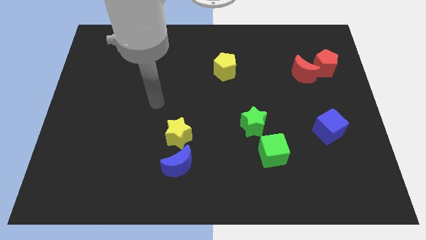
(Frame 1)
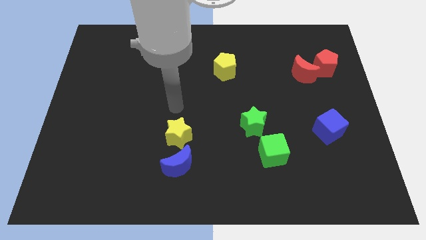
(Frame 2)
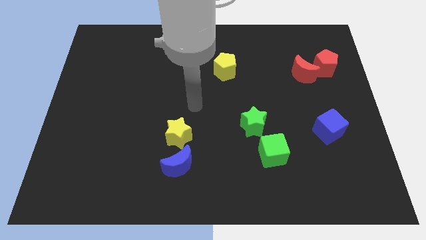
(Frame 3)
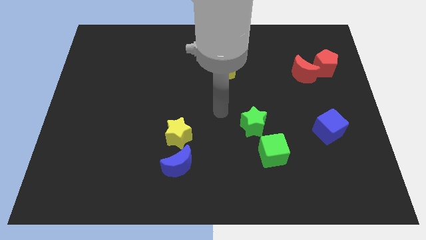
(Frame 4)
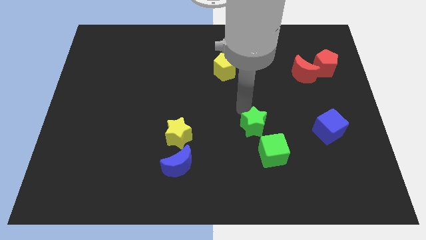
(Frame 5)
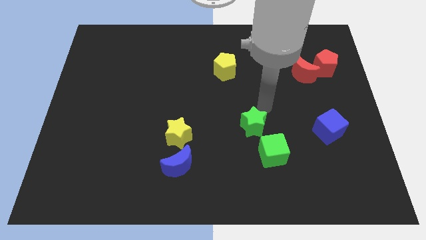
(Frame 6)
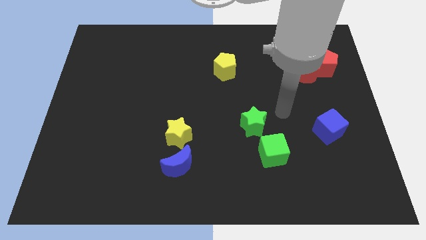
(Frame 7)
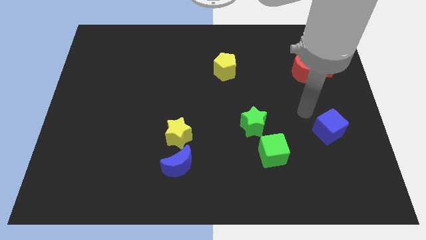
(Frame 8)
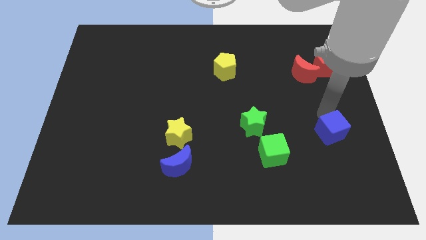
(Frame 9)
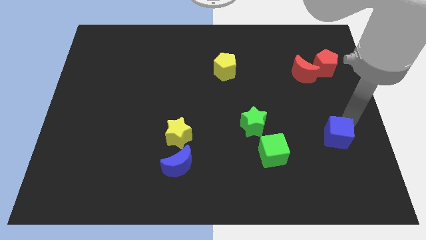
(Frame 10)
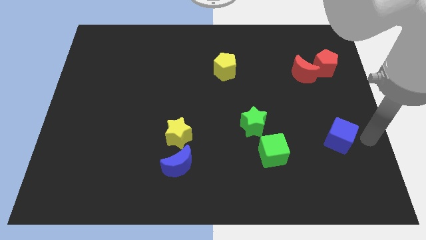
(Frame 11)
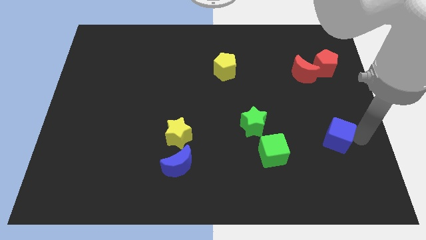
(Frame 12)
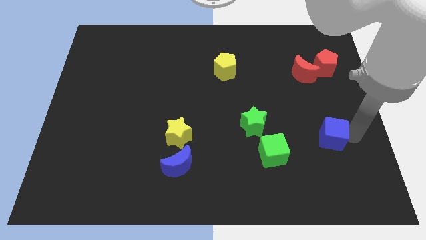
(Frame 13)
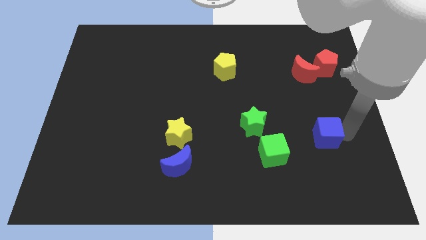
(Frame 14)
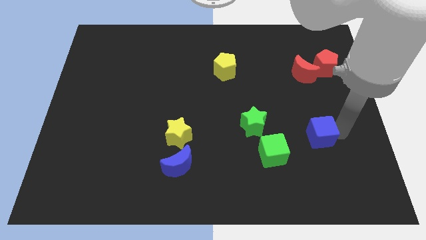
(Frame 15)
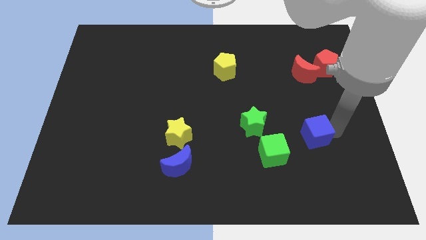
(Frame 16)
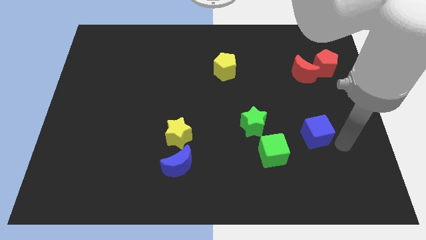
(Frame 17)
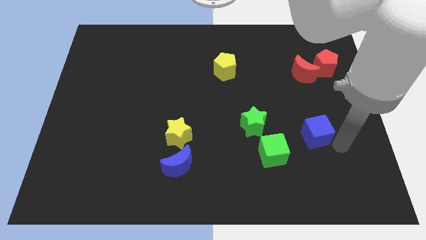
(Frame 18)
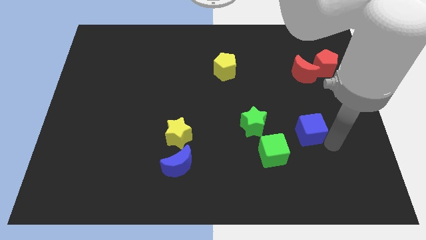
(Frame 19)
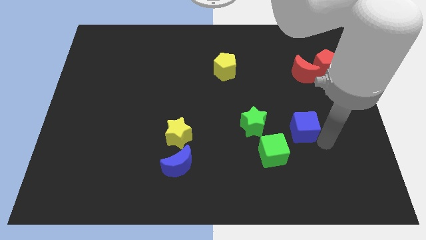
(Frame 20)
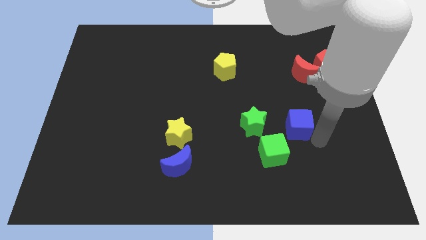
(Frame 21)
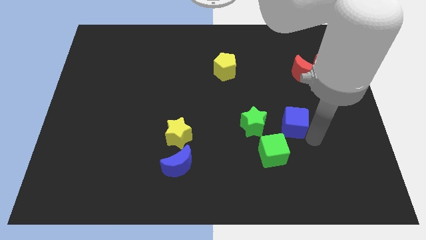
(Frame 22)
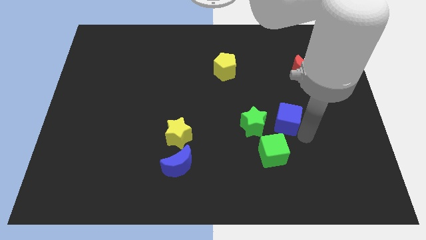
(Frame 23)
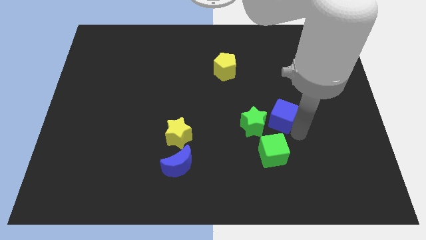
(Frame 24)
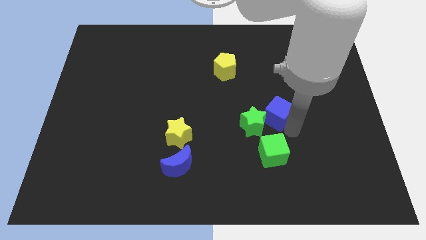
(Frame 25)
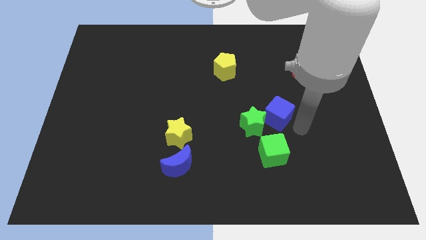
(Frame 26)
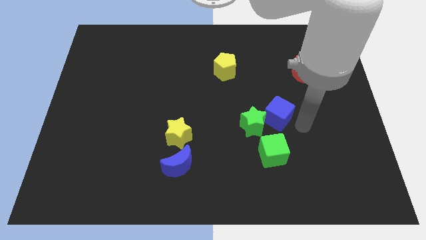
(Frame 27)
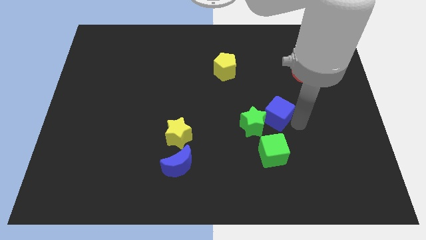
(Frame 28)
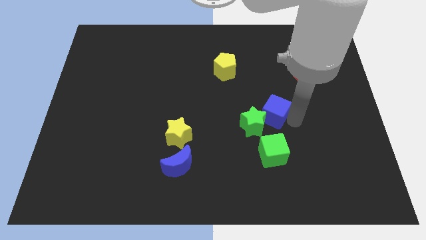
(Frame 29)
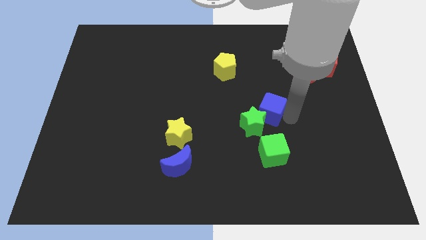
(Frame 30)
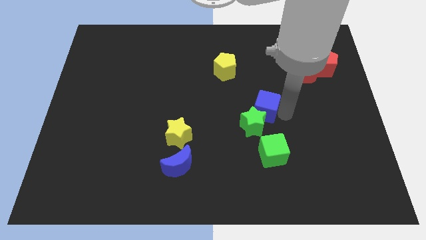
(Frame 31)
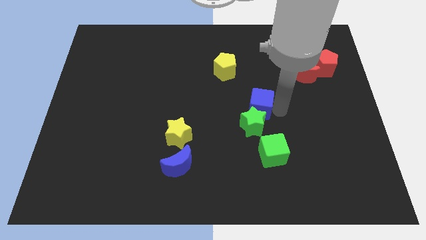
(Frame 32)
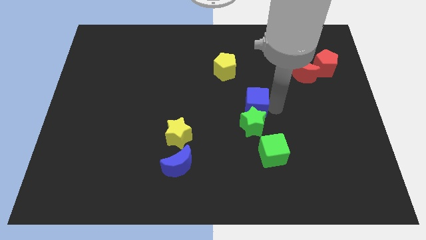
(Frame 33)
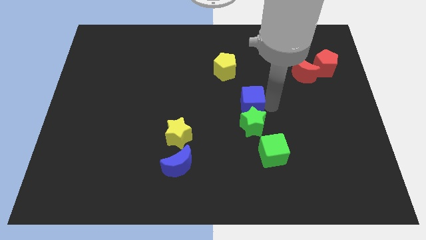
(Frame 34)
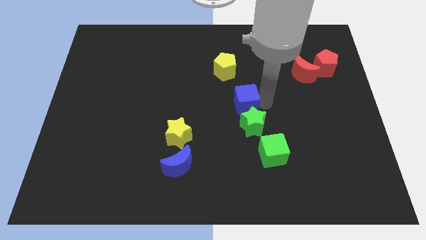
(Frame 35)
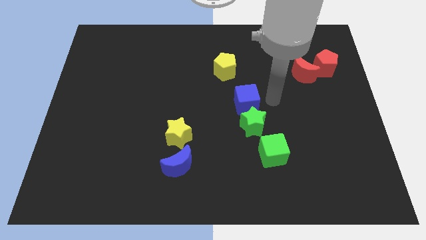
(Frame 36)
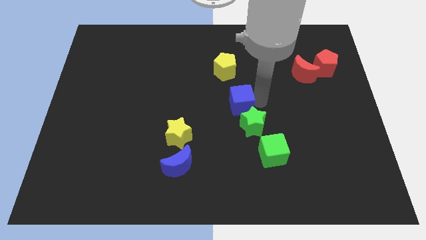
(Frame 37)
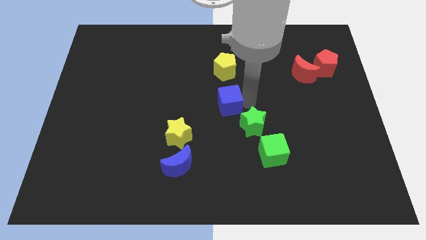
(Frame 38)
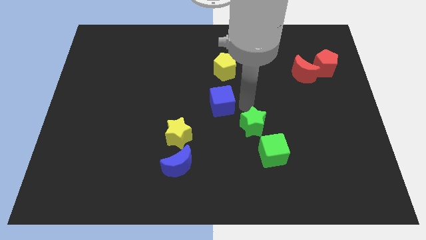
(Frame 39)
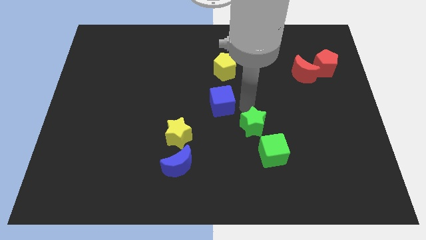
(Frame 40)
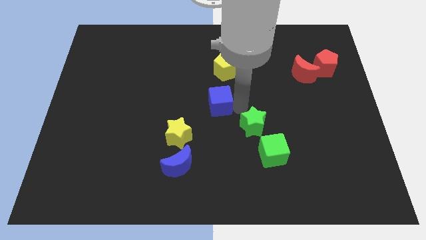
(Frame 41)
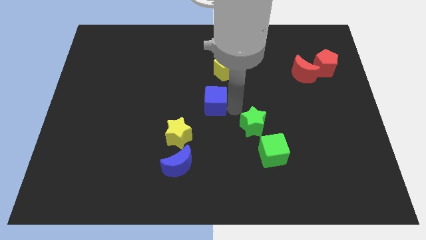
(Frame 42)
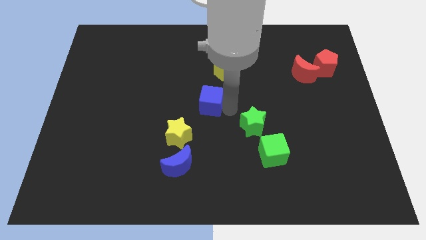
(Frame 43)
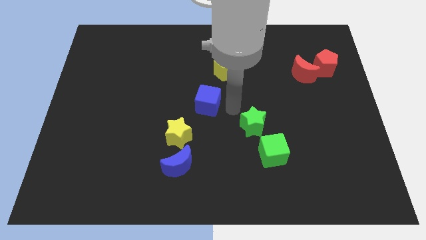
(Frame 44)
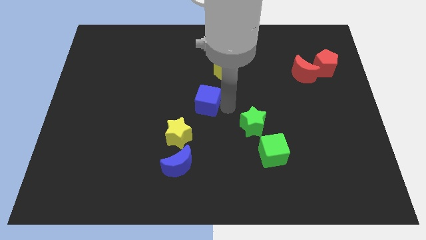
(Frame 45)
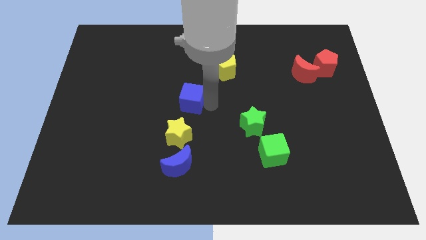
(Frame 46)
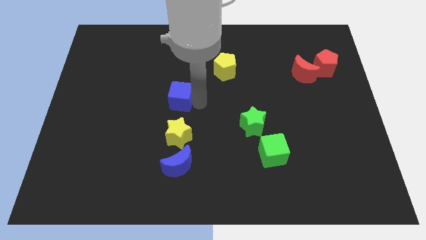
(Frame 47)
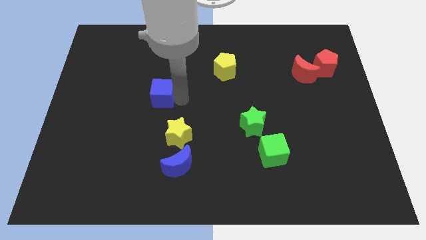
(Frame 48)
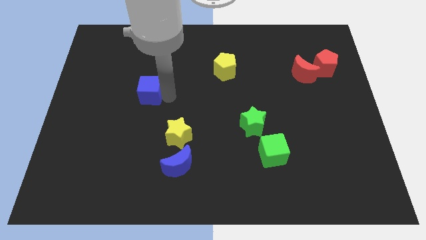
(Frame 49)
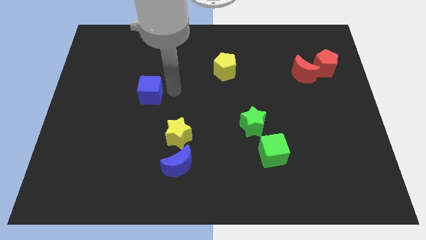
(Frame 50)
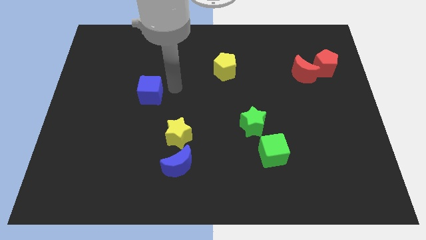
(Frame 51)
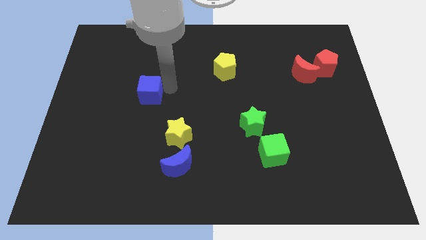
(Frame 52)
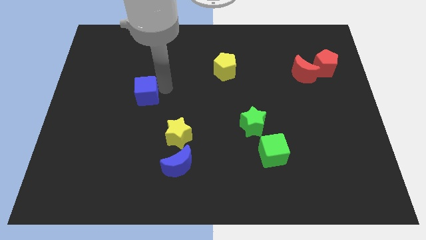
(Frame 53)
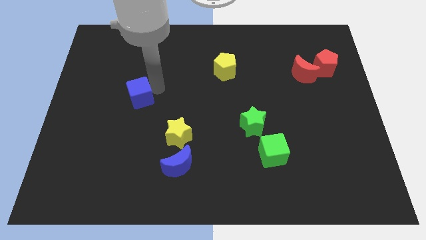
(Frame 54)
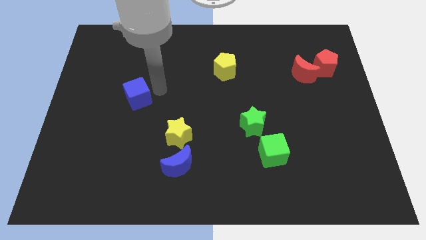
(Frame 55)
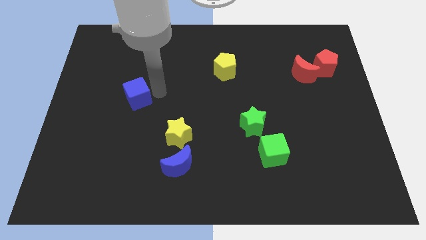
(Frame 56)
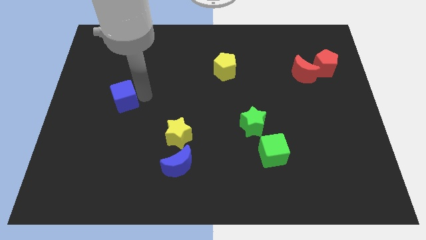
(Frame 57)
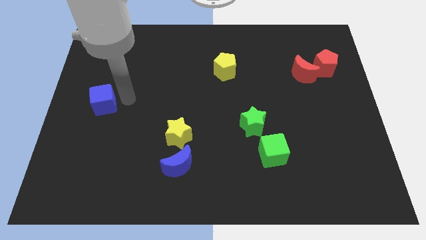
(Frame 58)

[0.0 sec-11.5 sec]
push the blue cube to the left side

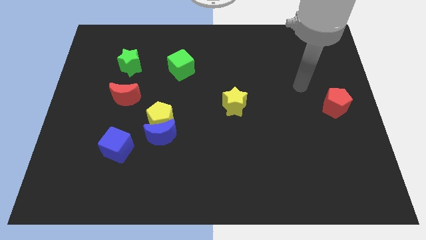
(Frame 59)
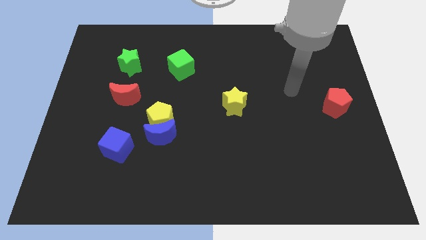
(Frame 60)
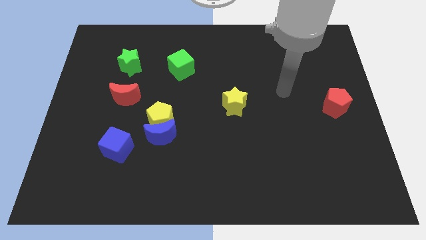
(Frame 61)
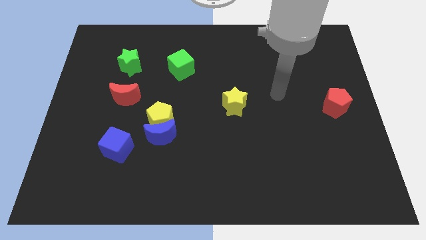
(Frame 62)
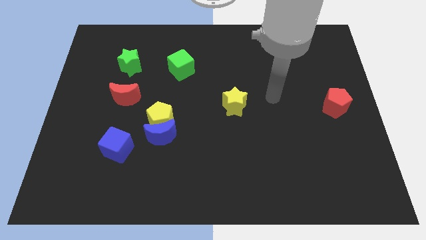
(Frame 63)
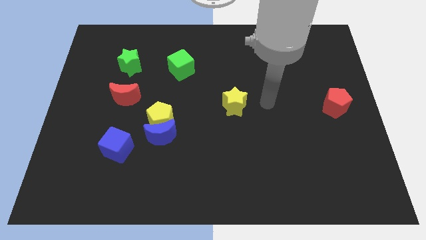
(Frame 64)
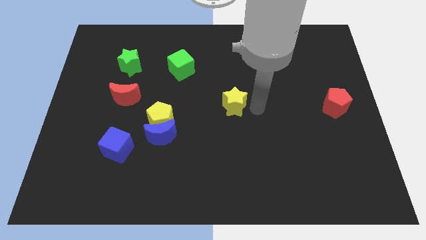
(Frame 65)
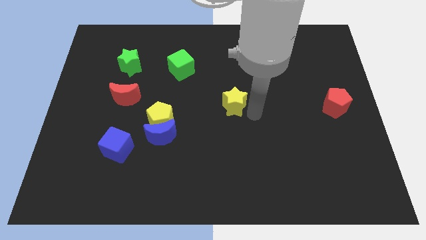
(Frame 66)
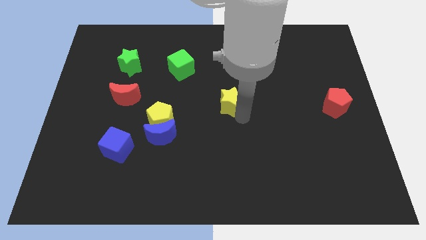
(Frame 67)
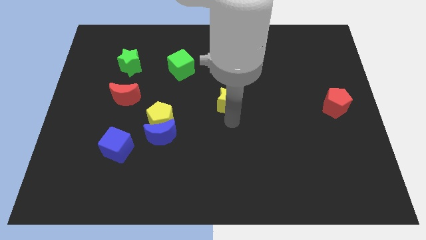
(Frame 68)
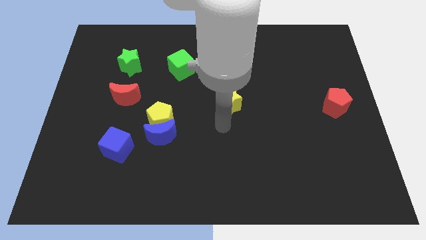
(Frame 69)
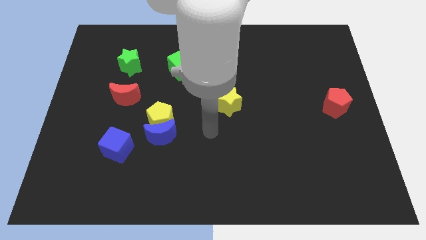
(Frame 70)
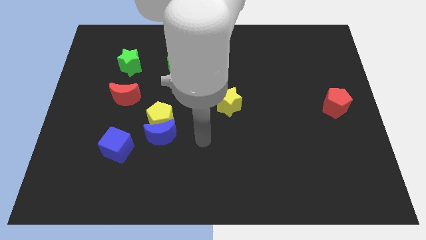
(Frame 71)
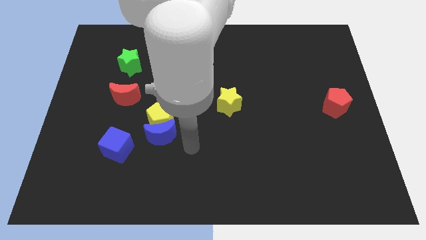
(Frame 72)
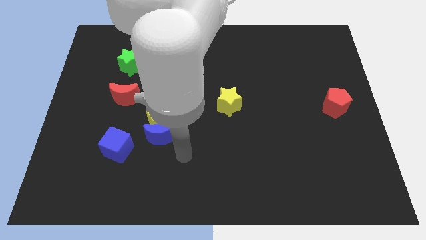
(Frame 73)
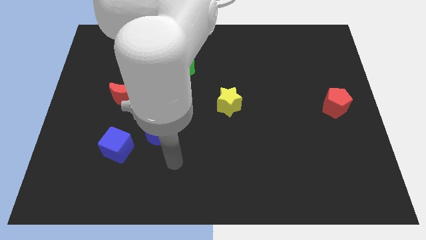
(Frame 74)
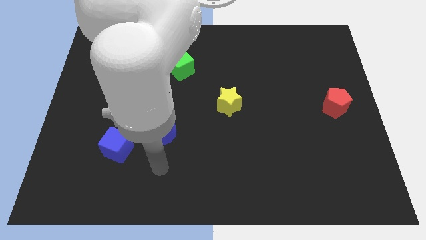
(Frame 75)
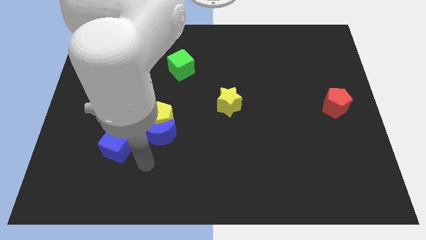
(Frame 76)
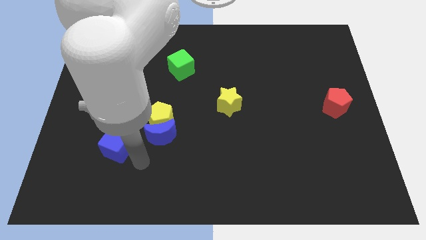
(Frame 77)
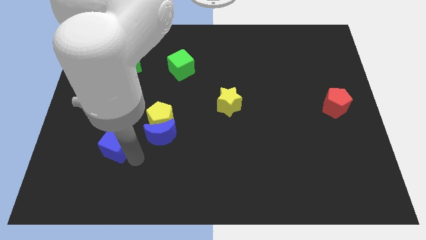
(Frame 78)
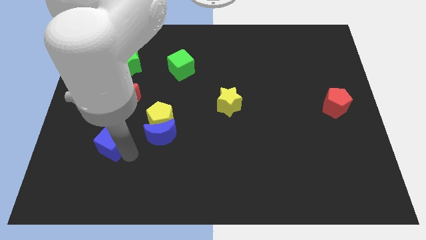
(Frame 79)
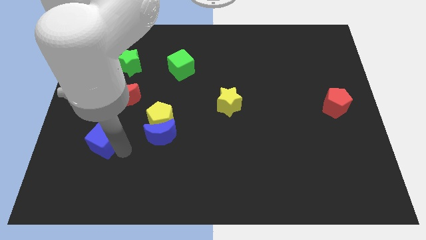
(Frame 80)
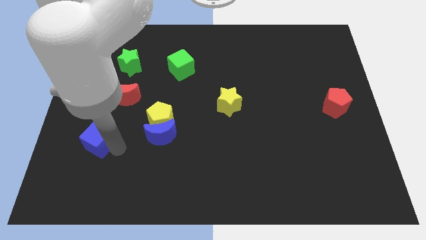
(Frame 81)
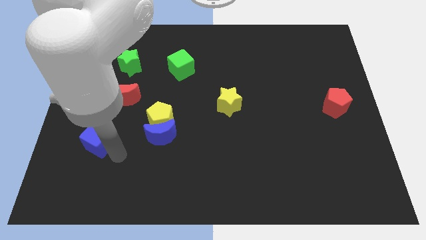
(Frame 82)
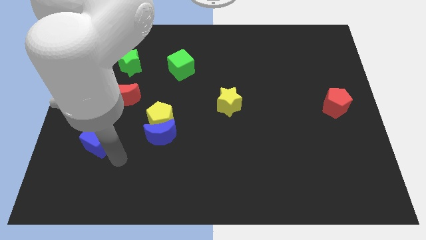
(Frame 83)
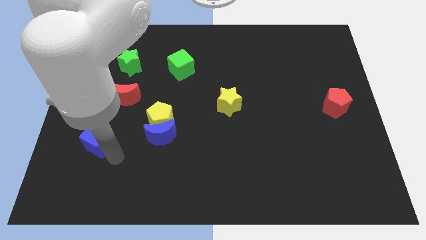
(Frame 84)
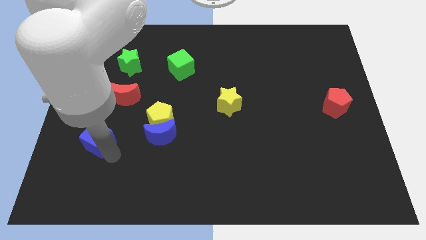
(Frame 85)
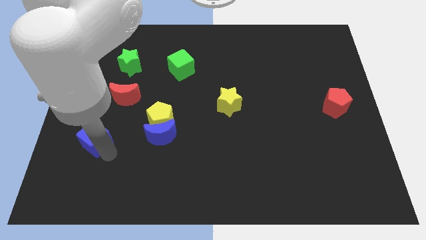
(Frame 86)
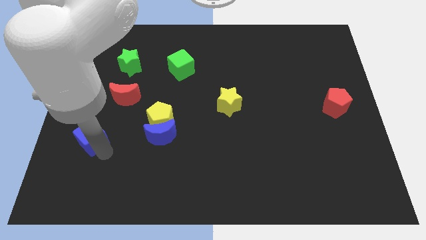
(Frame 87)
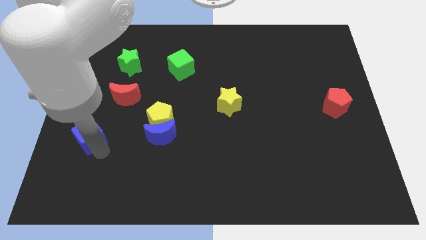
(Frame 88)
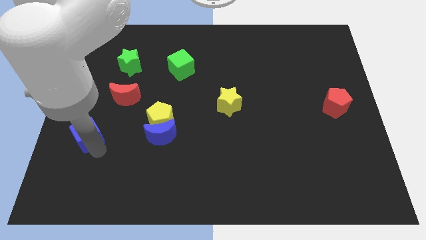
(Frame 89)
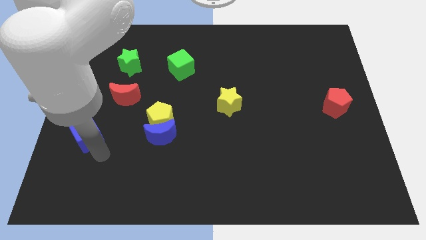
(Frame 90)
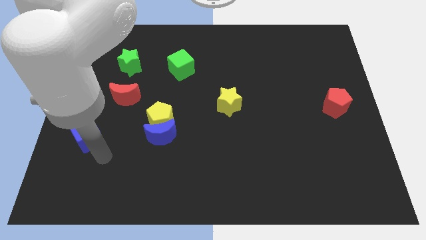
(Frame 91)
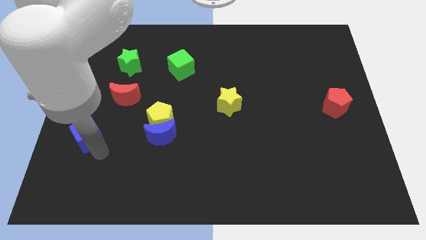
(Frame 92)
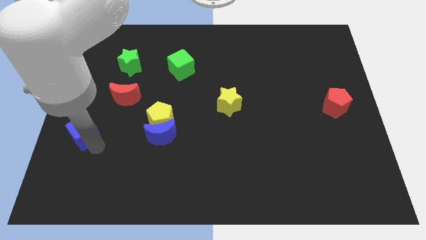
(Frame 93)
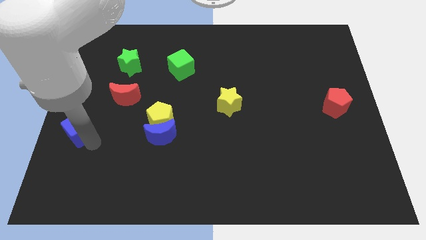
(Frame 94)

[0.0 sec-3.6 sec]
push the blue cube to the center left
